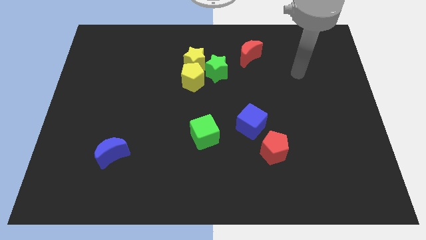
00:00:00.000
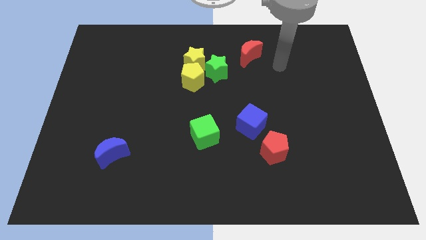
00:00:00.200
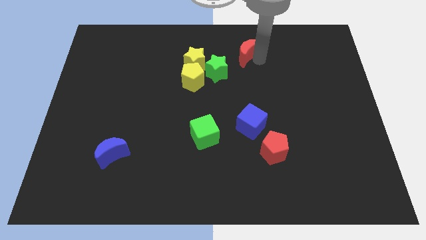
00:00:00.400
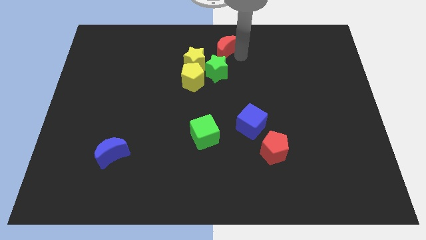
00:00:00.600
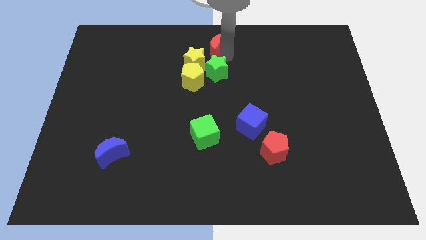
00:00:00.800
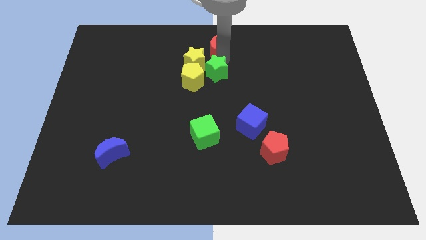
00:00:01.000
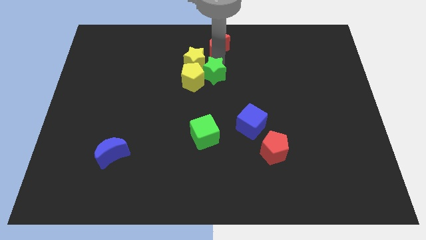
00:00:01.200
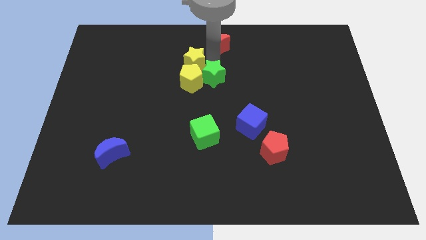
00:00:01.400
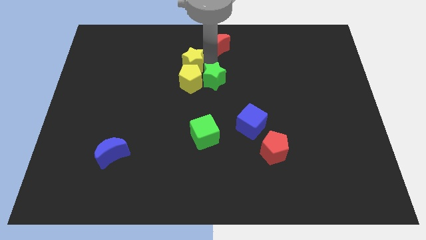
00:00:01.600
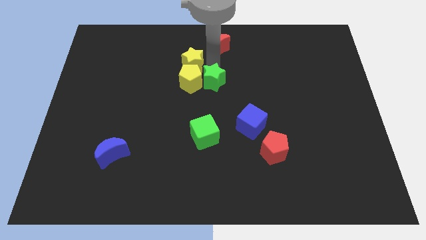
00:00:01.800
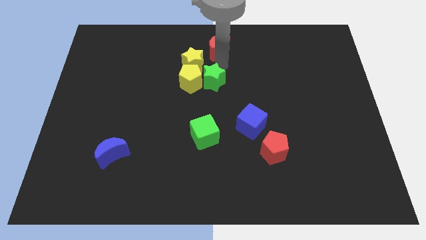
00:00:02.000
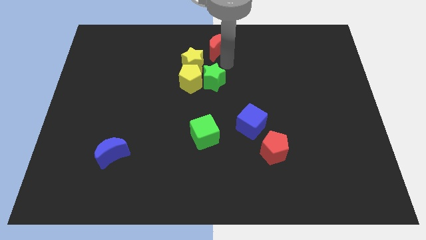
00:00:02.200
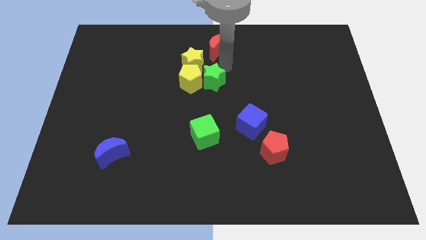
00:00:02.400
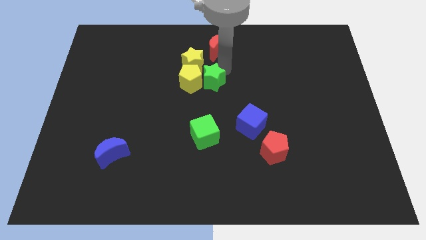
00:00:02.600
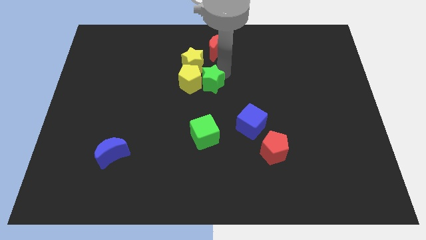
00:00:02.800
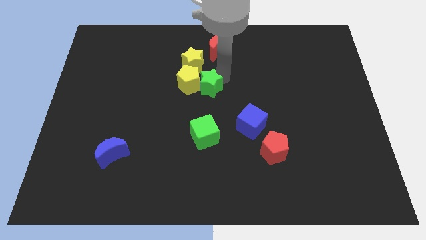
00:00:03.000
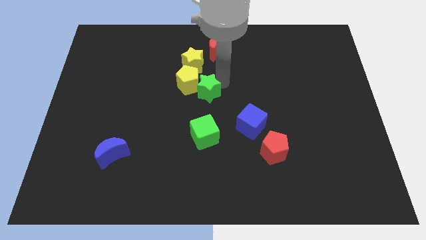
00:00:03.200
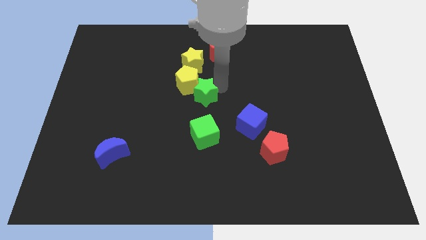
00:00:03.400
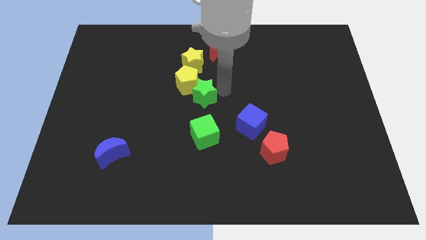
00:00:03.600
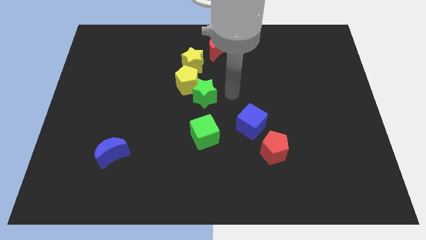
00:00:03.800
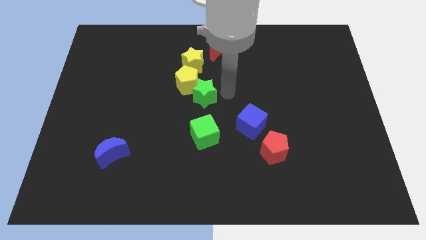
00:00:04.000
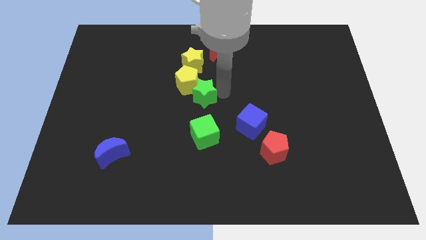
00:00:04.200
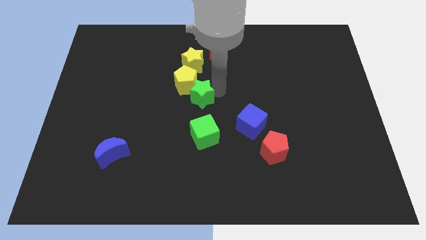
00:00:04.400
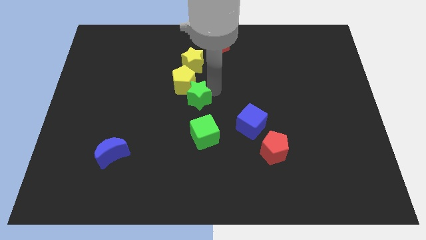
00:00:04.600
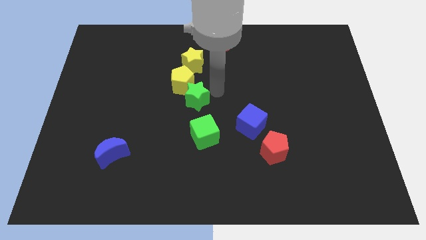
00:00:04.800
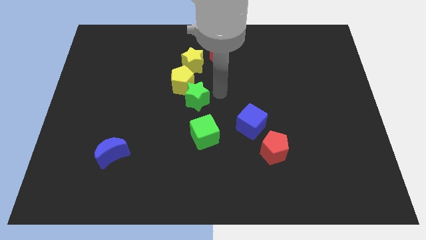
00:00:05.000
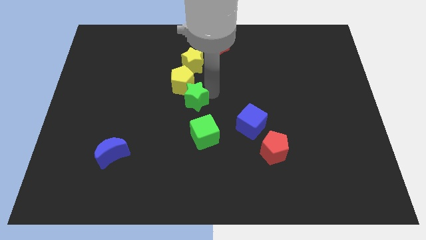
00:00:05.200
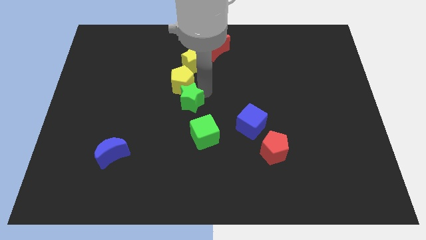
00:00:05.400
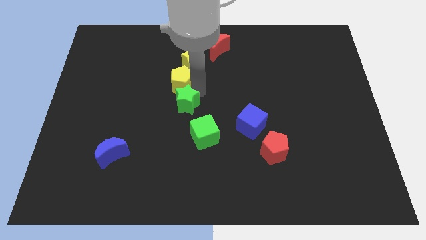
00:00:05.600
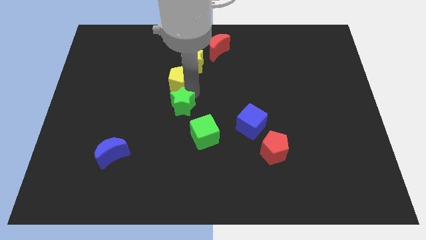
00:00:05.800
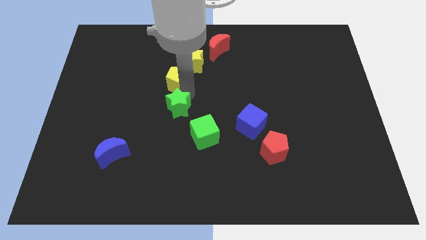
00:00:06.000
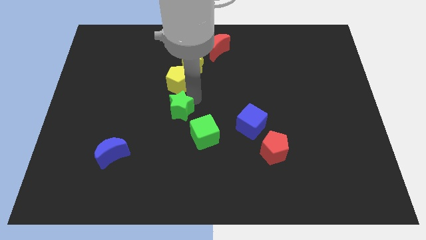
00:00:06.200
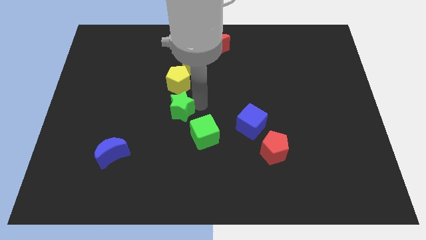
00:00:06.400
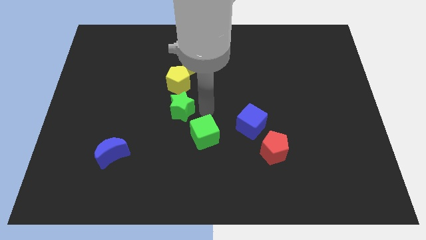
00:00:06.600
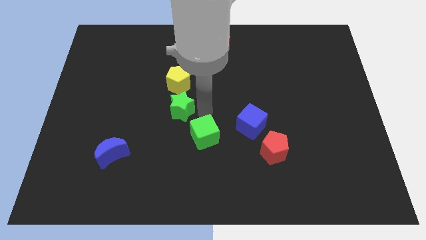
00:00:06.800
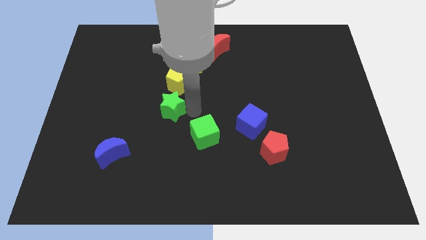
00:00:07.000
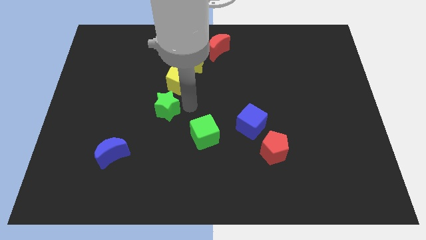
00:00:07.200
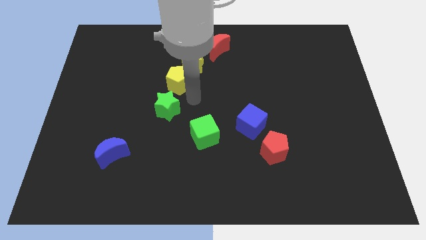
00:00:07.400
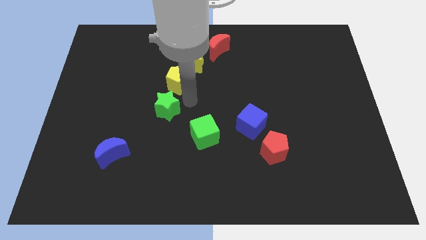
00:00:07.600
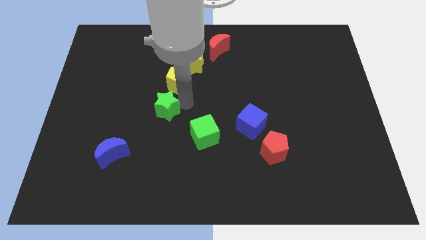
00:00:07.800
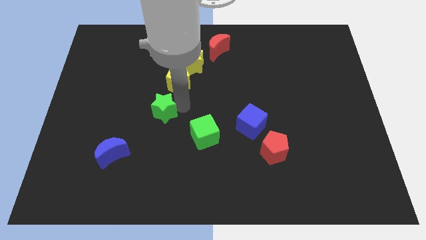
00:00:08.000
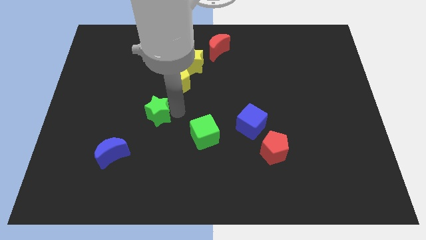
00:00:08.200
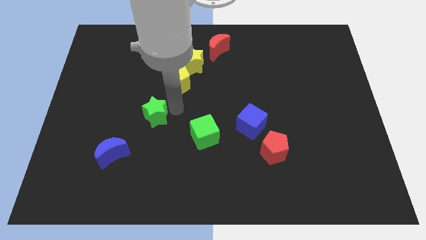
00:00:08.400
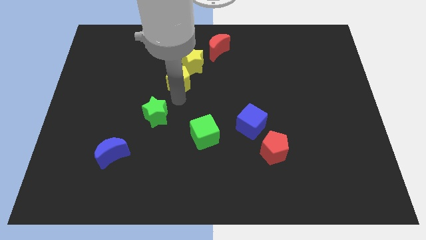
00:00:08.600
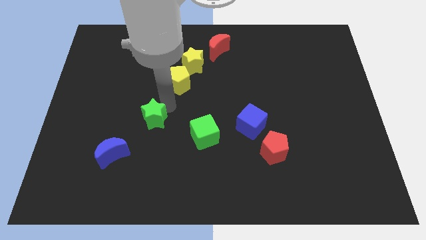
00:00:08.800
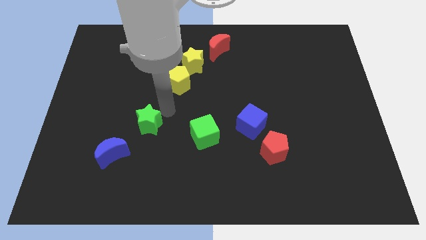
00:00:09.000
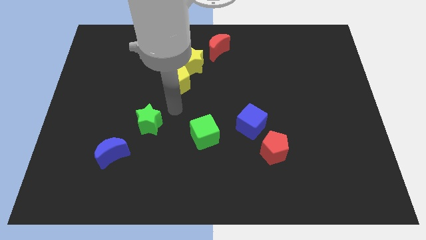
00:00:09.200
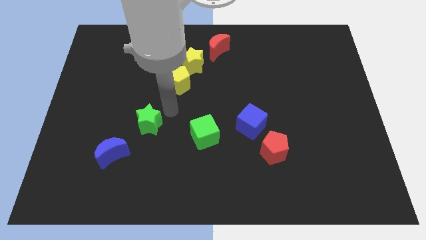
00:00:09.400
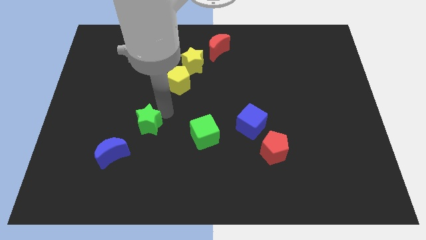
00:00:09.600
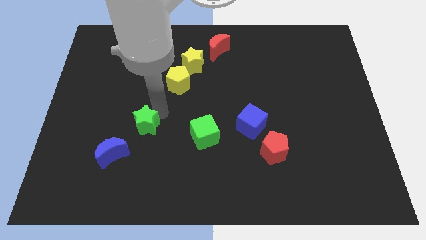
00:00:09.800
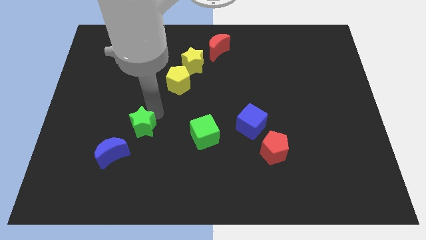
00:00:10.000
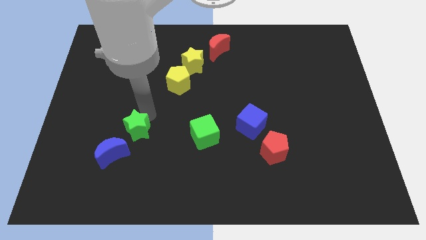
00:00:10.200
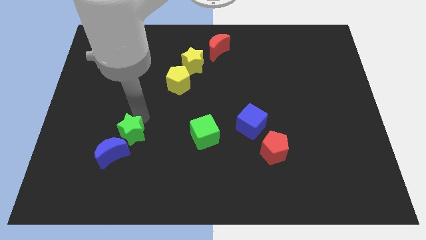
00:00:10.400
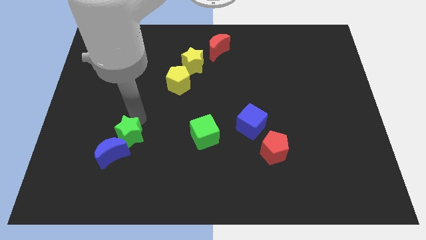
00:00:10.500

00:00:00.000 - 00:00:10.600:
slide the green star close to the blue moon

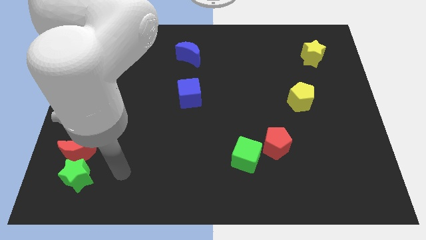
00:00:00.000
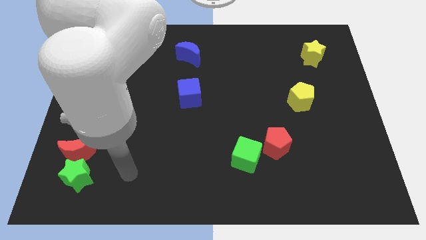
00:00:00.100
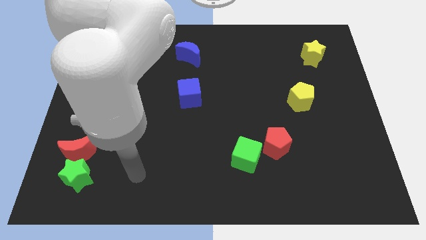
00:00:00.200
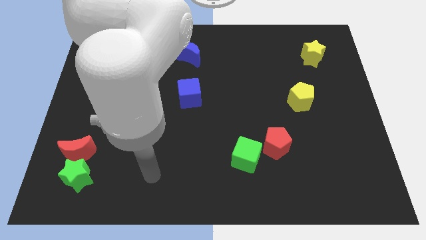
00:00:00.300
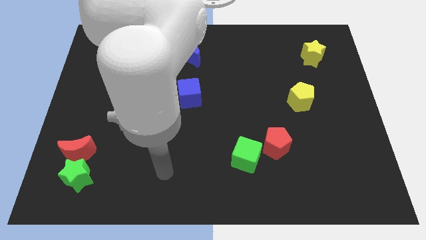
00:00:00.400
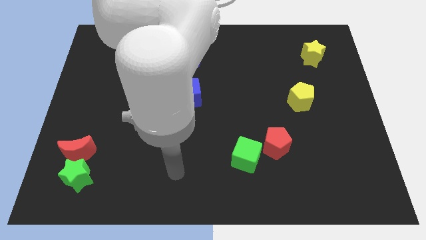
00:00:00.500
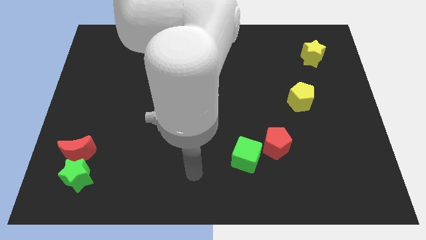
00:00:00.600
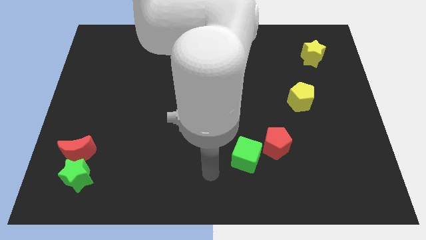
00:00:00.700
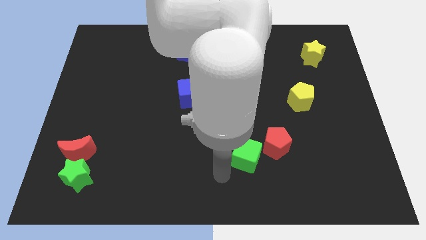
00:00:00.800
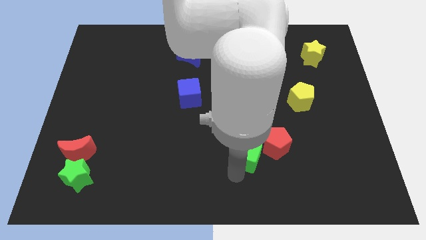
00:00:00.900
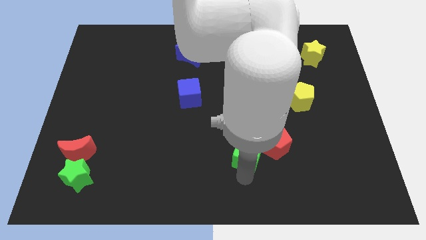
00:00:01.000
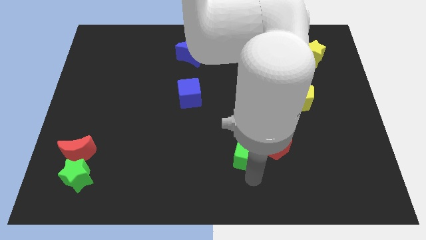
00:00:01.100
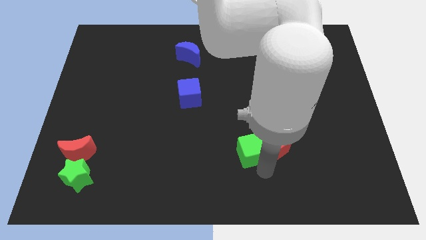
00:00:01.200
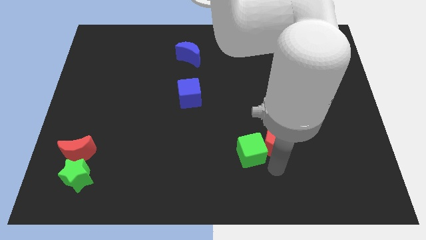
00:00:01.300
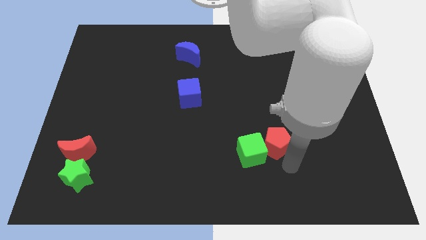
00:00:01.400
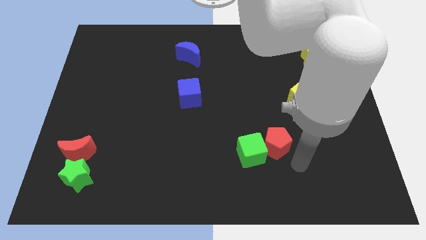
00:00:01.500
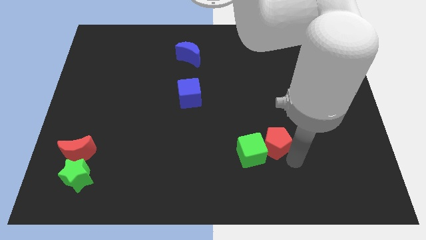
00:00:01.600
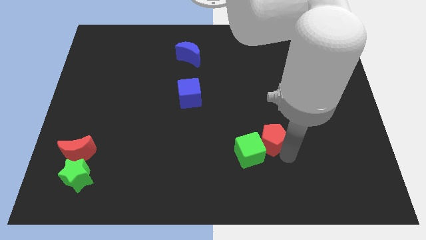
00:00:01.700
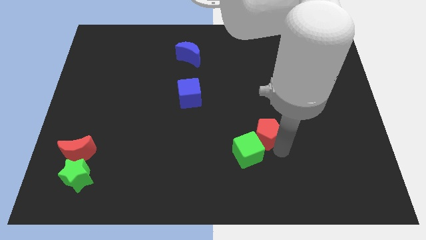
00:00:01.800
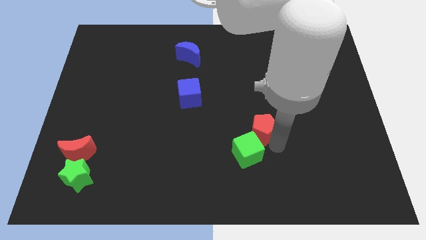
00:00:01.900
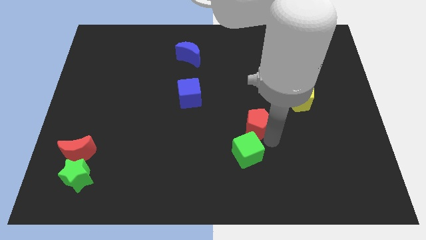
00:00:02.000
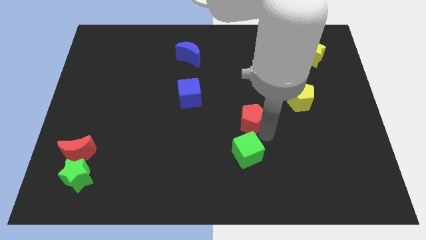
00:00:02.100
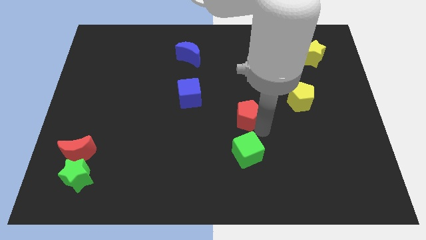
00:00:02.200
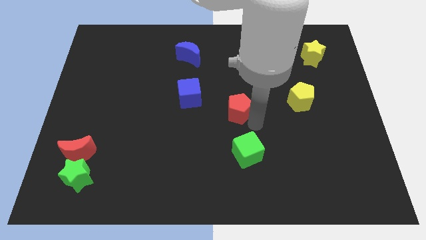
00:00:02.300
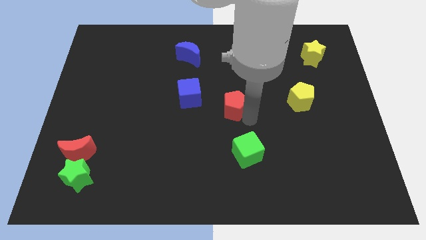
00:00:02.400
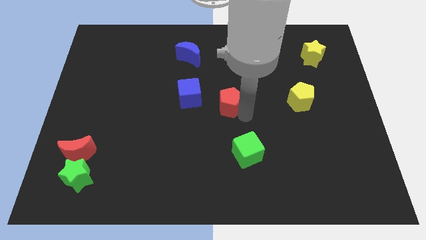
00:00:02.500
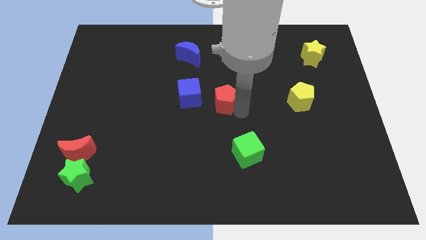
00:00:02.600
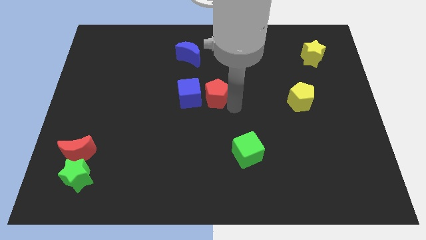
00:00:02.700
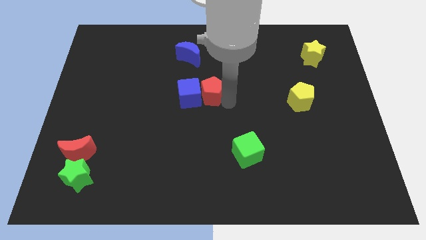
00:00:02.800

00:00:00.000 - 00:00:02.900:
put the red pentagon close to the blue cube

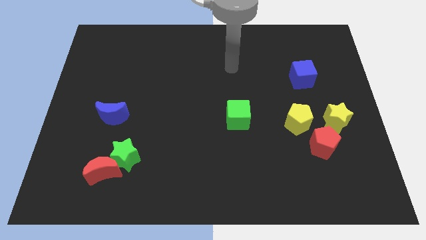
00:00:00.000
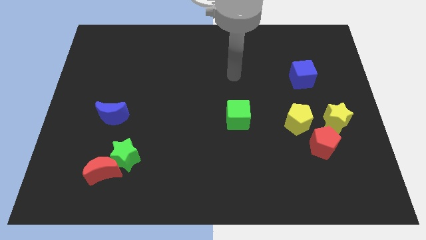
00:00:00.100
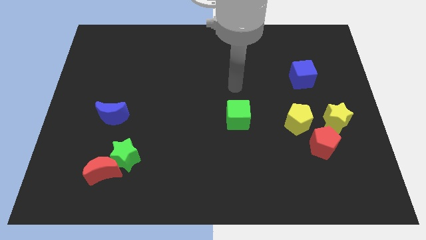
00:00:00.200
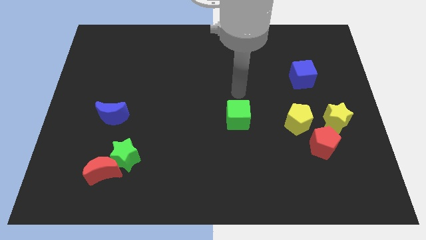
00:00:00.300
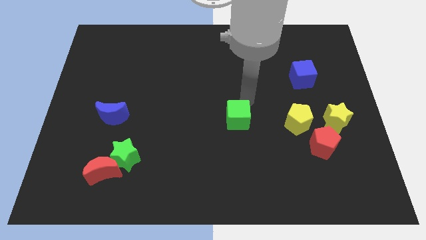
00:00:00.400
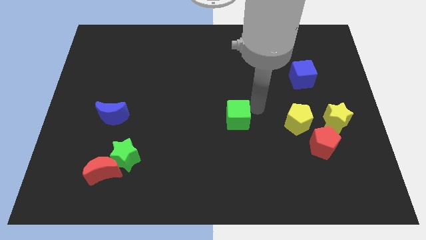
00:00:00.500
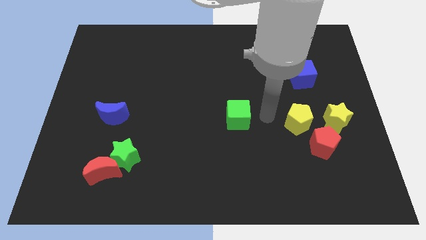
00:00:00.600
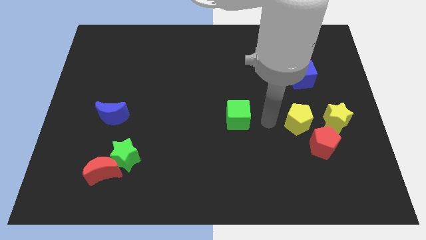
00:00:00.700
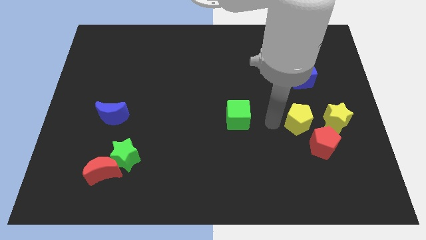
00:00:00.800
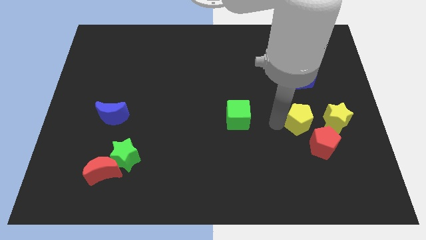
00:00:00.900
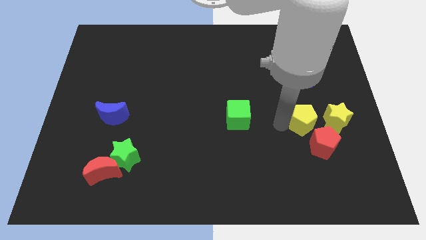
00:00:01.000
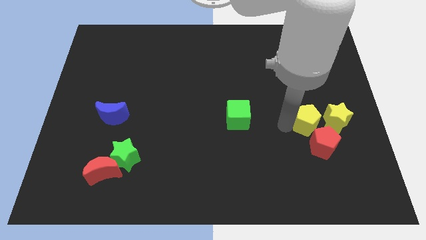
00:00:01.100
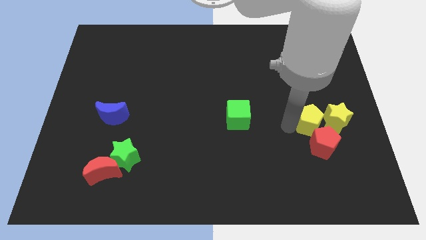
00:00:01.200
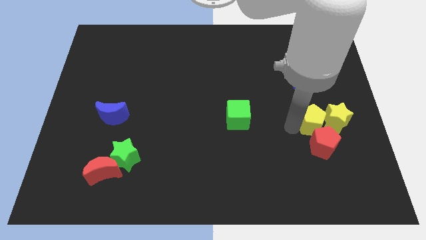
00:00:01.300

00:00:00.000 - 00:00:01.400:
put the yellow pentagon next to the yellow star
